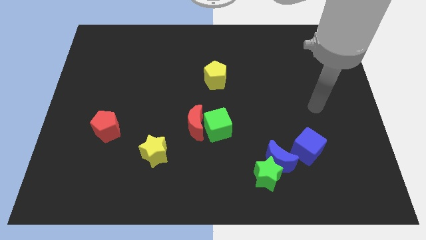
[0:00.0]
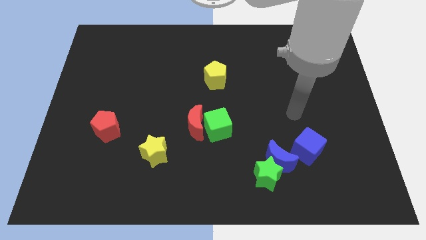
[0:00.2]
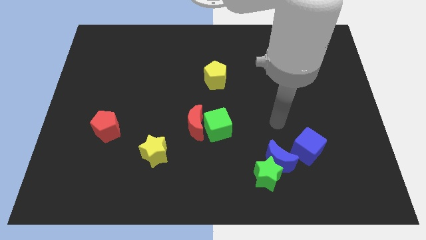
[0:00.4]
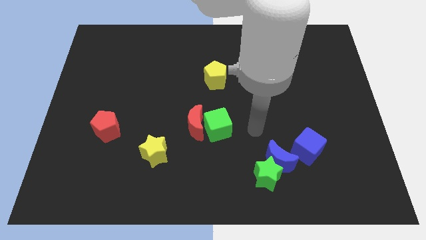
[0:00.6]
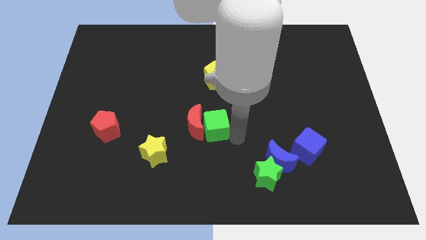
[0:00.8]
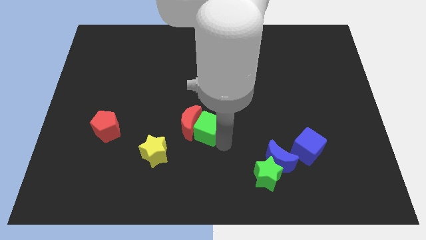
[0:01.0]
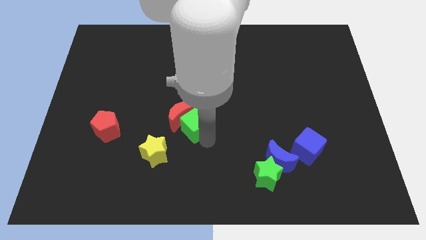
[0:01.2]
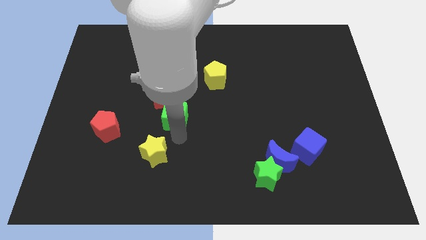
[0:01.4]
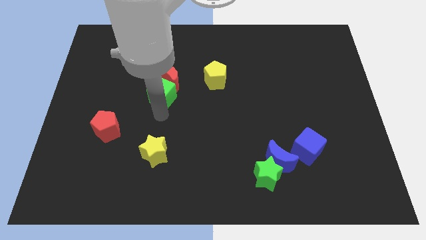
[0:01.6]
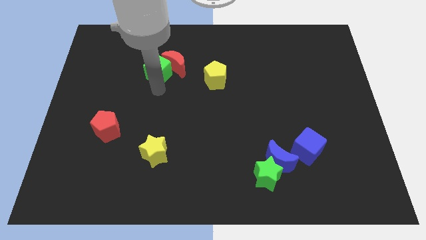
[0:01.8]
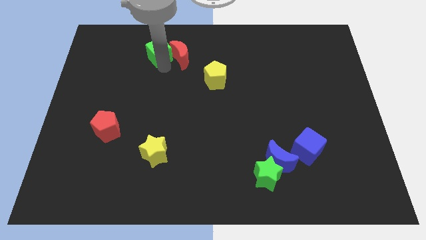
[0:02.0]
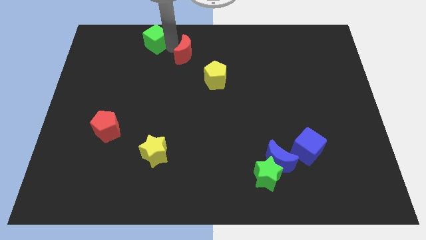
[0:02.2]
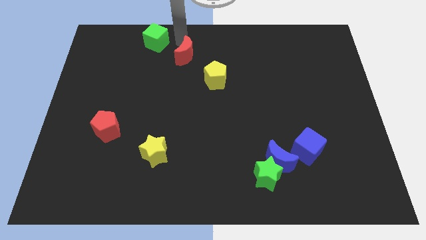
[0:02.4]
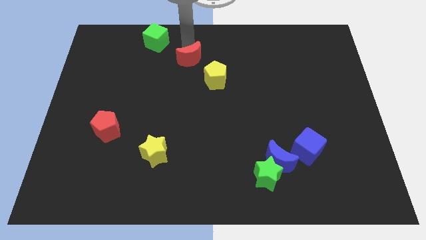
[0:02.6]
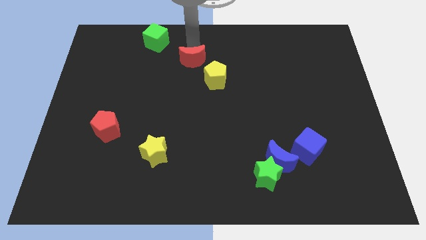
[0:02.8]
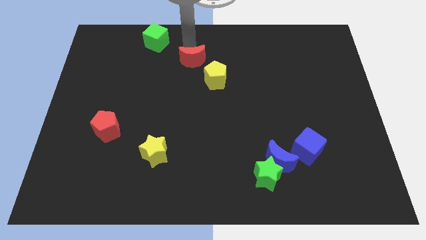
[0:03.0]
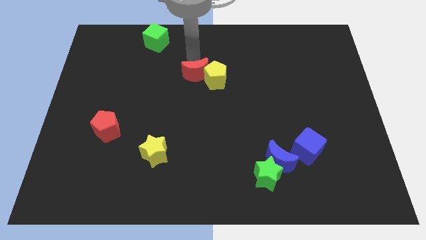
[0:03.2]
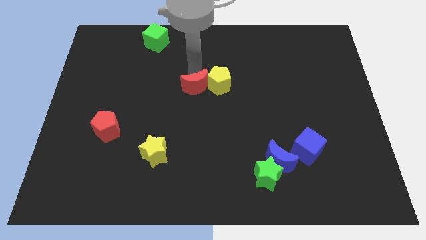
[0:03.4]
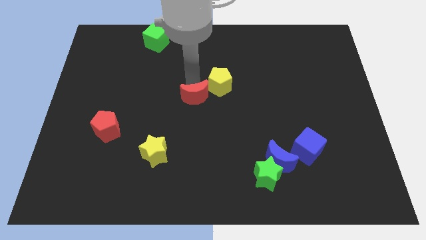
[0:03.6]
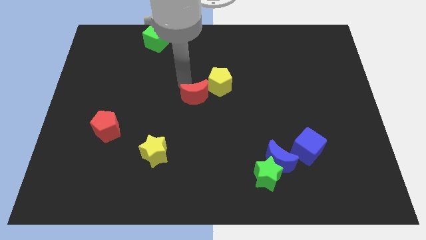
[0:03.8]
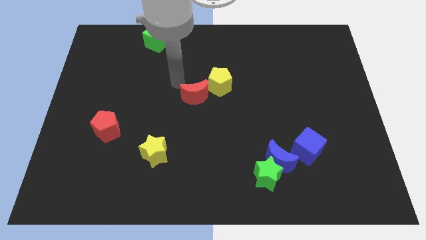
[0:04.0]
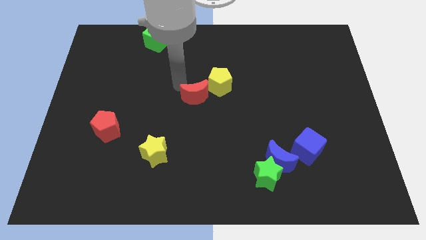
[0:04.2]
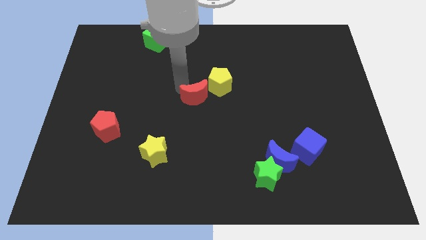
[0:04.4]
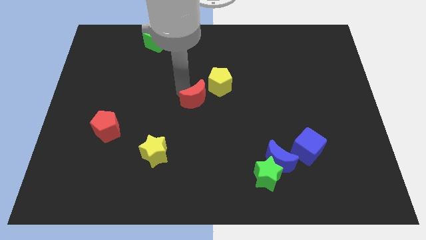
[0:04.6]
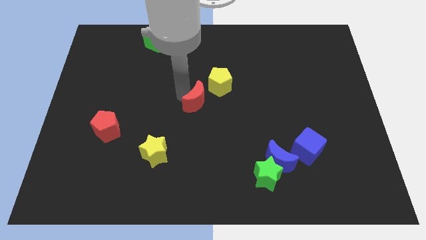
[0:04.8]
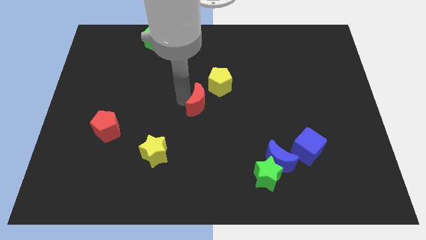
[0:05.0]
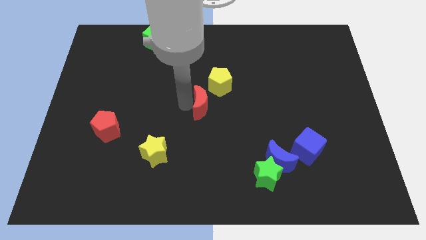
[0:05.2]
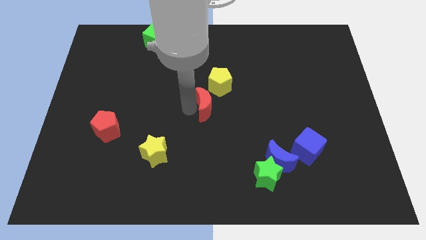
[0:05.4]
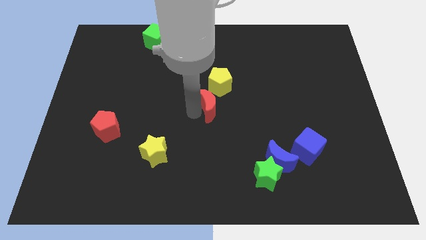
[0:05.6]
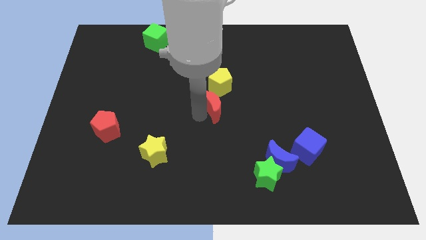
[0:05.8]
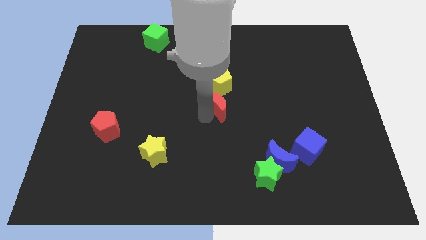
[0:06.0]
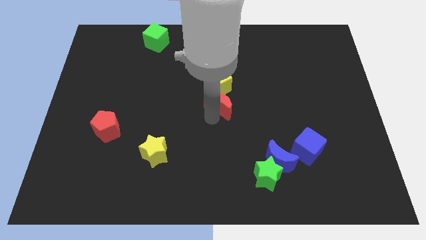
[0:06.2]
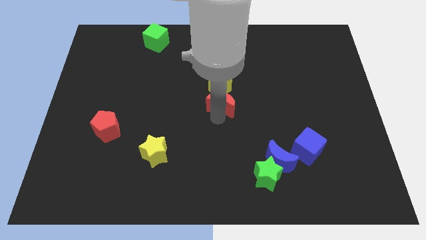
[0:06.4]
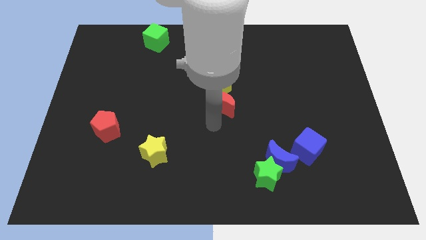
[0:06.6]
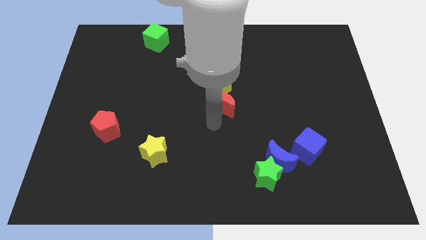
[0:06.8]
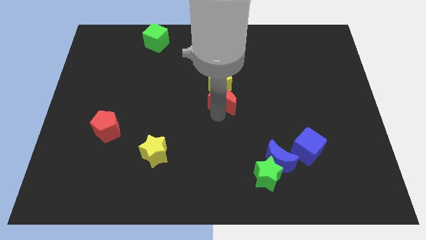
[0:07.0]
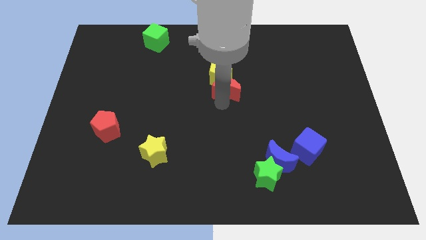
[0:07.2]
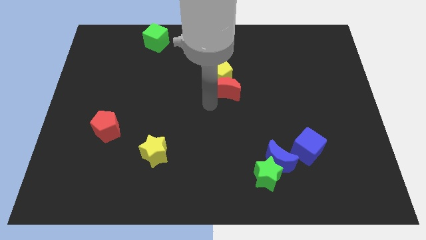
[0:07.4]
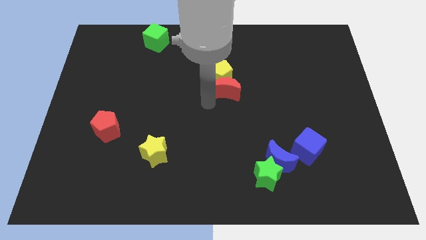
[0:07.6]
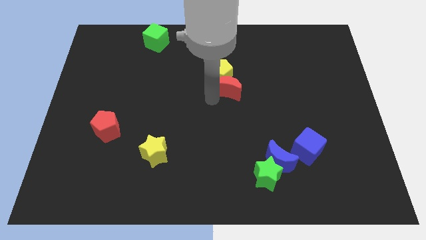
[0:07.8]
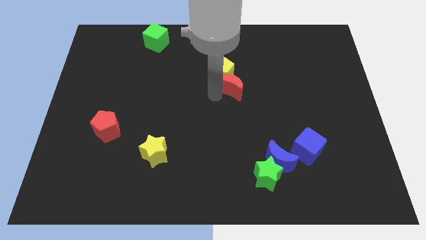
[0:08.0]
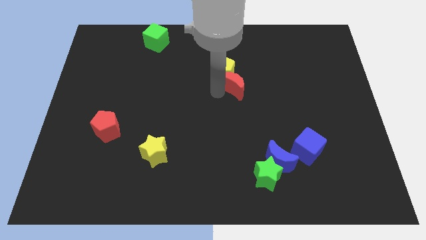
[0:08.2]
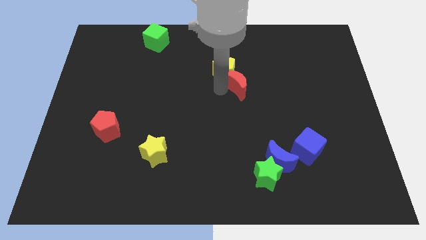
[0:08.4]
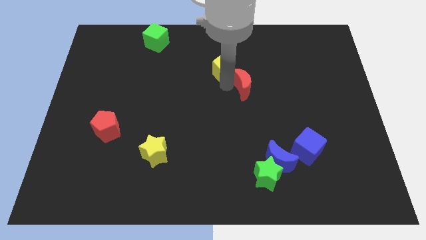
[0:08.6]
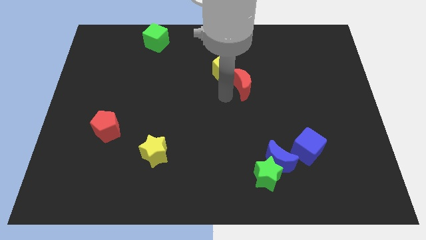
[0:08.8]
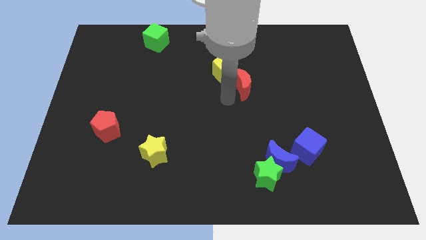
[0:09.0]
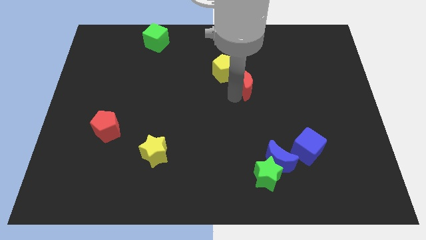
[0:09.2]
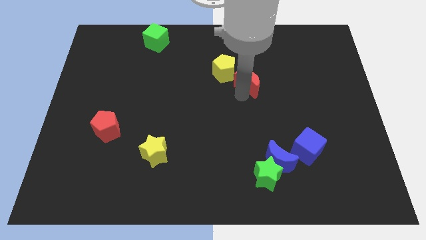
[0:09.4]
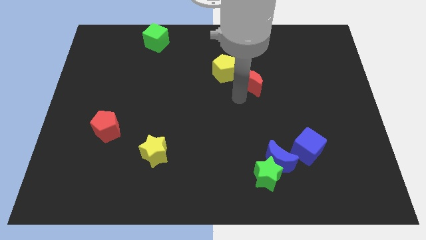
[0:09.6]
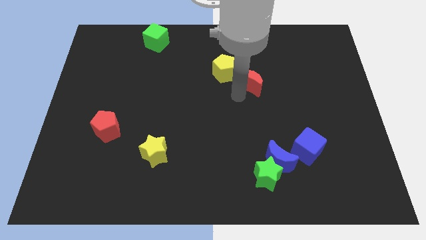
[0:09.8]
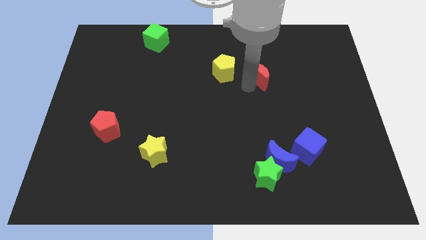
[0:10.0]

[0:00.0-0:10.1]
push the red moon upwards and right diagonally

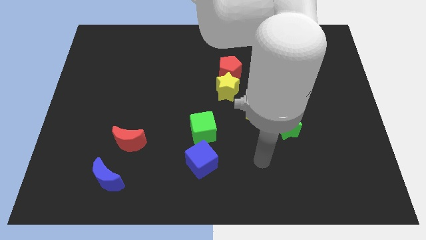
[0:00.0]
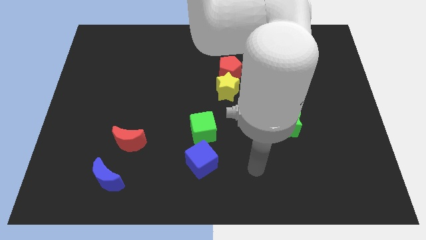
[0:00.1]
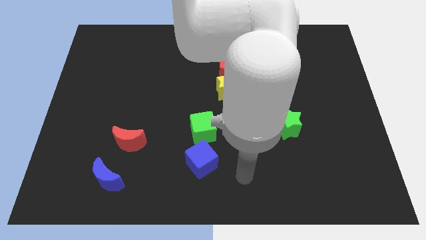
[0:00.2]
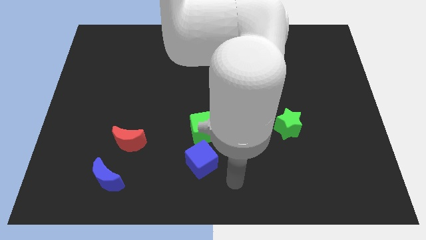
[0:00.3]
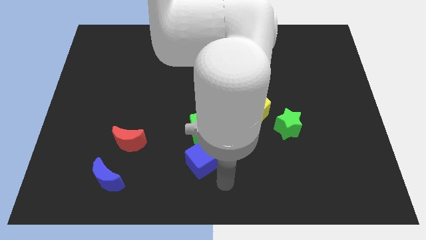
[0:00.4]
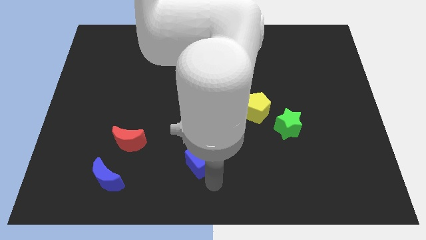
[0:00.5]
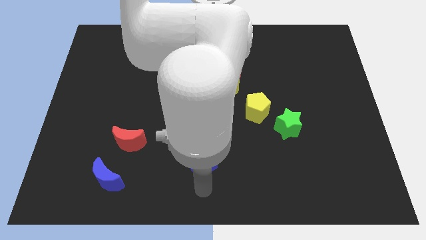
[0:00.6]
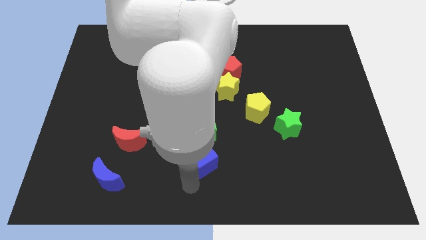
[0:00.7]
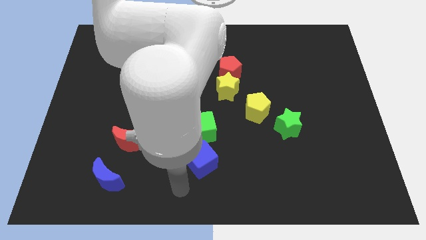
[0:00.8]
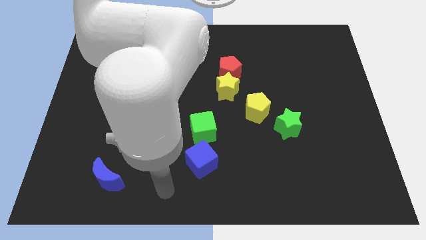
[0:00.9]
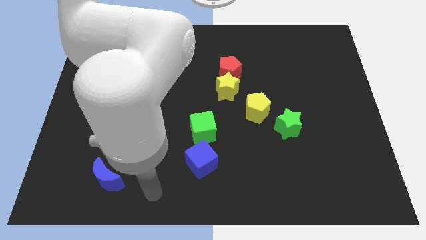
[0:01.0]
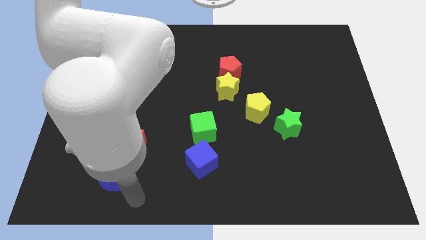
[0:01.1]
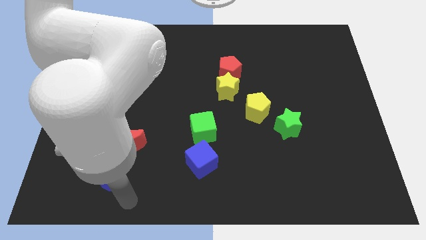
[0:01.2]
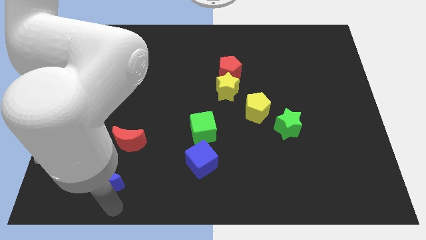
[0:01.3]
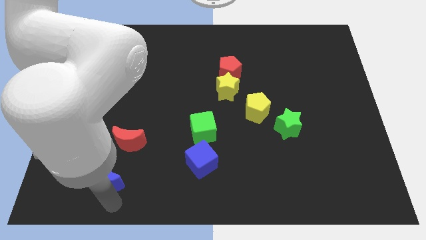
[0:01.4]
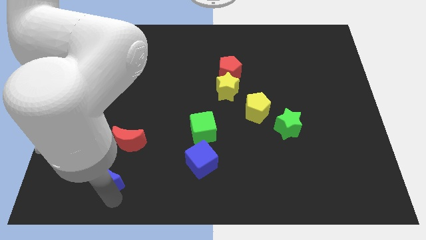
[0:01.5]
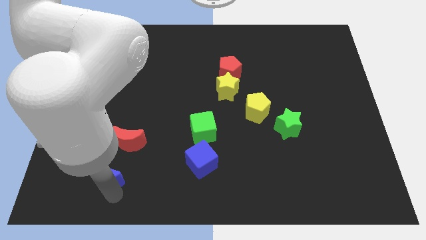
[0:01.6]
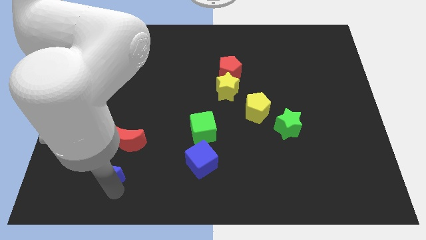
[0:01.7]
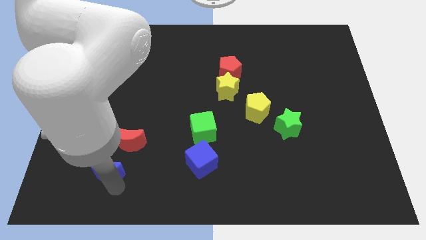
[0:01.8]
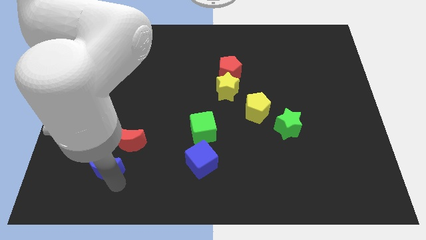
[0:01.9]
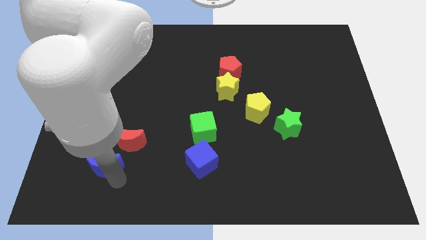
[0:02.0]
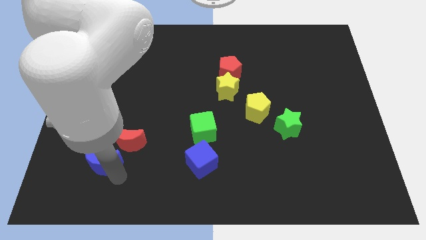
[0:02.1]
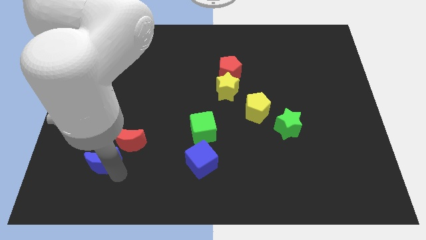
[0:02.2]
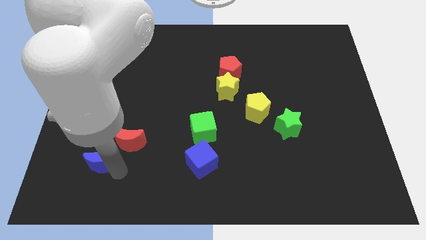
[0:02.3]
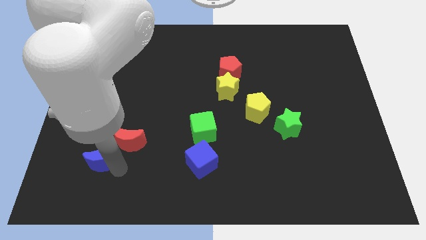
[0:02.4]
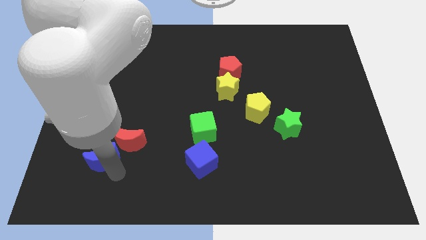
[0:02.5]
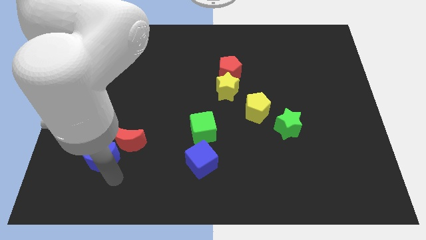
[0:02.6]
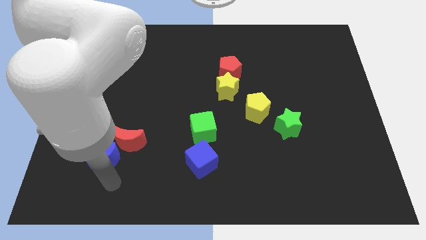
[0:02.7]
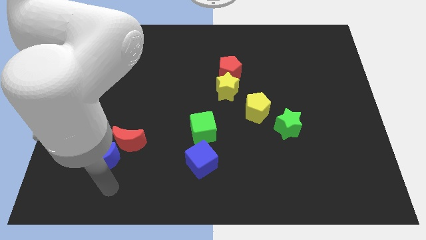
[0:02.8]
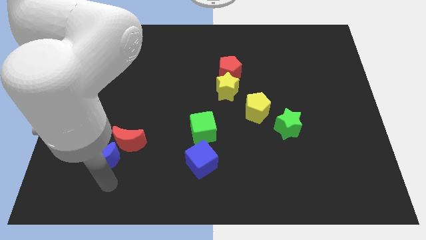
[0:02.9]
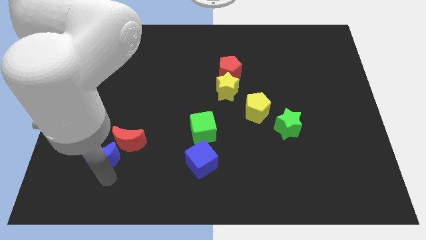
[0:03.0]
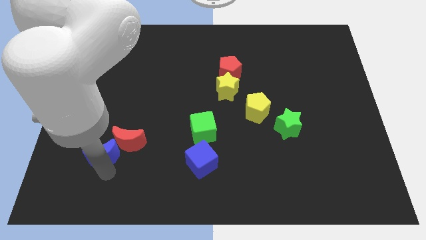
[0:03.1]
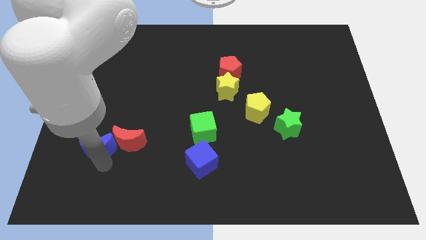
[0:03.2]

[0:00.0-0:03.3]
slightly push the blue moon upwards
